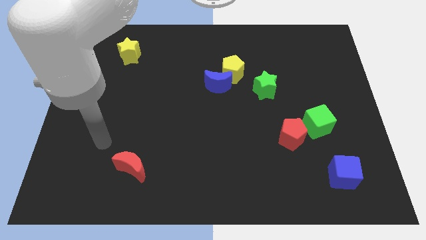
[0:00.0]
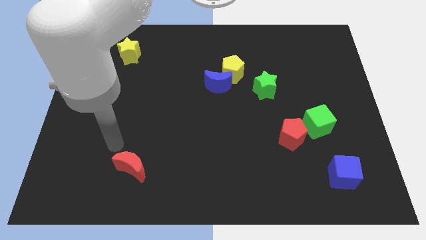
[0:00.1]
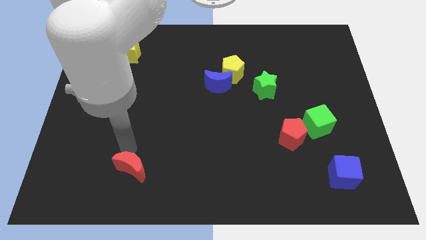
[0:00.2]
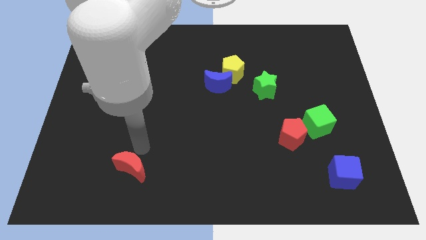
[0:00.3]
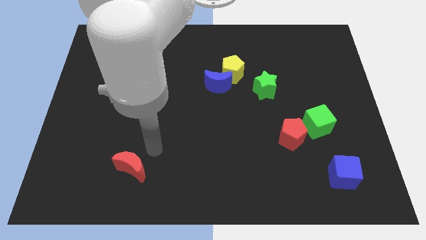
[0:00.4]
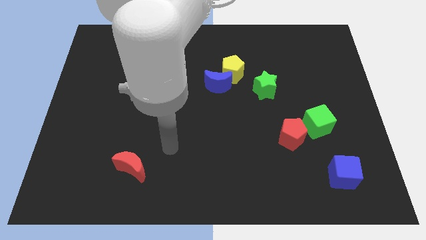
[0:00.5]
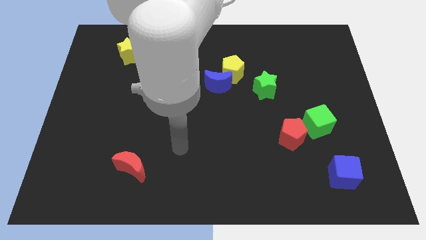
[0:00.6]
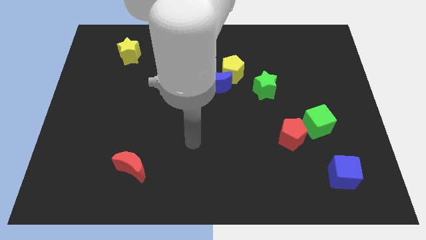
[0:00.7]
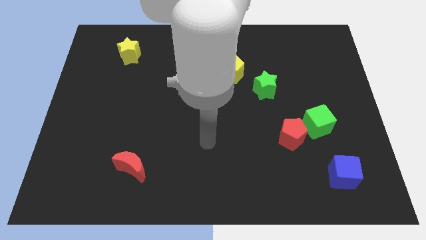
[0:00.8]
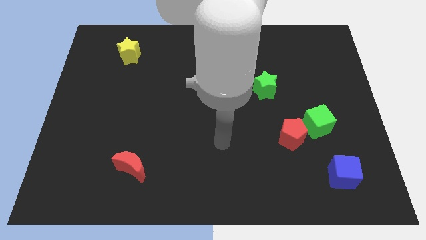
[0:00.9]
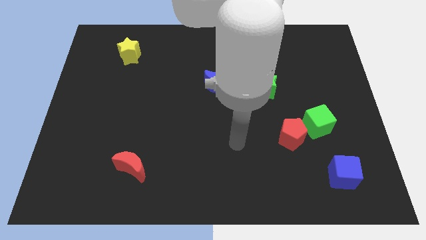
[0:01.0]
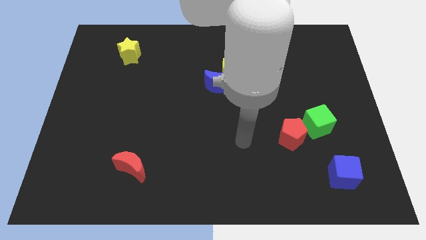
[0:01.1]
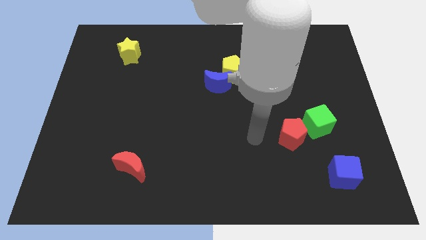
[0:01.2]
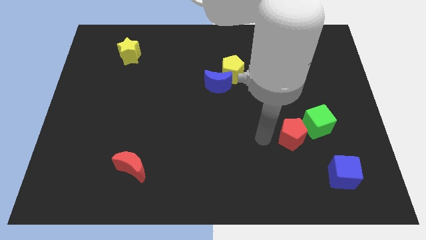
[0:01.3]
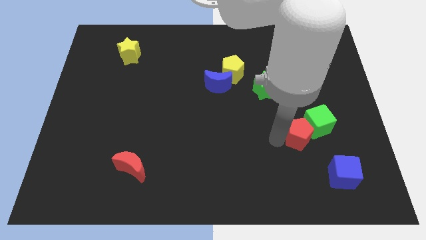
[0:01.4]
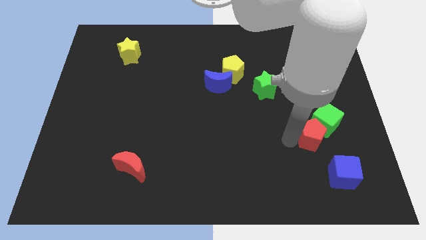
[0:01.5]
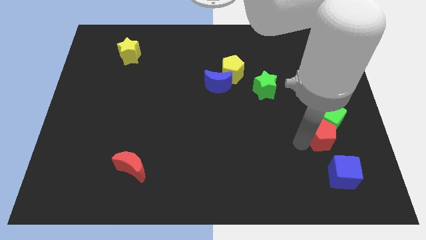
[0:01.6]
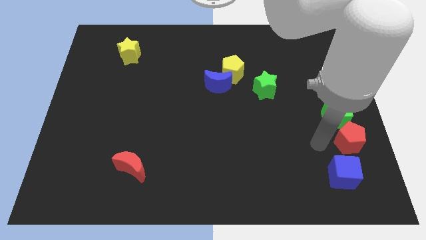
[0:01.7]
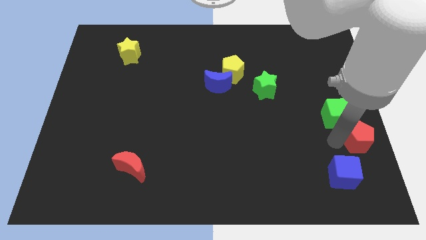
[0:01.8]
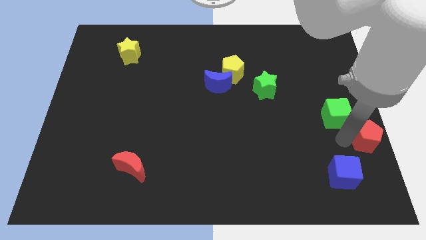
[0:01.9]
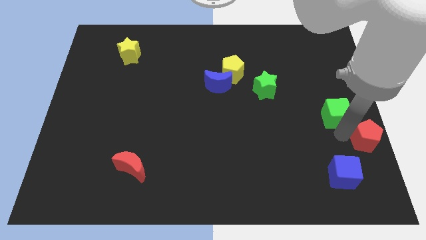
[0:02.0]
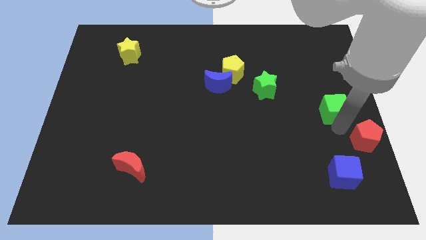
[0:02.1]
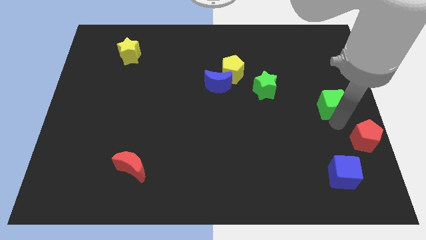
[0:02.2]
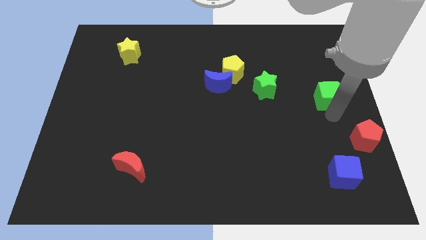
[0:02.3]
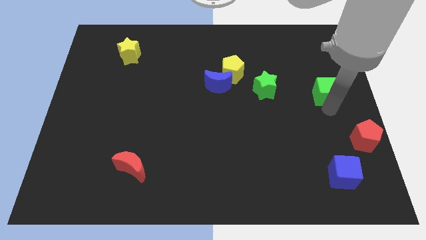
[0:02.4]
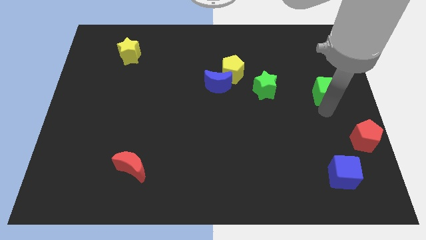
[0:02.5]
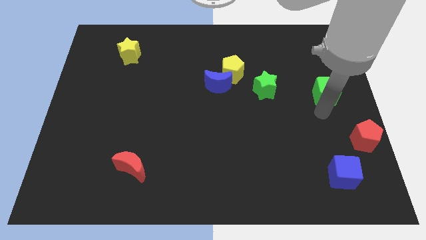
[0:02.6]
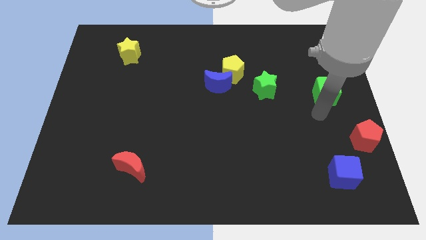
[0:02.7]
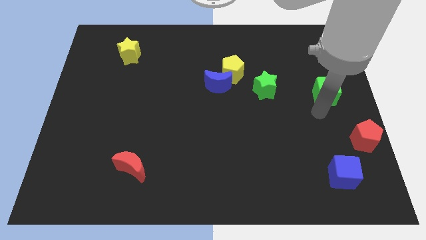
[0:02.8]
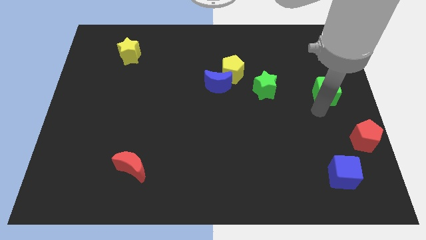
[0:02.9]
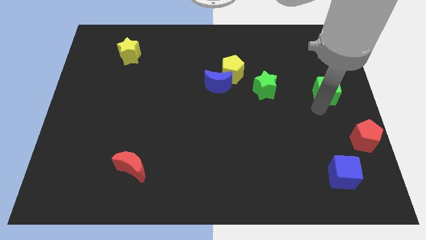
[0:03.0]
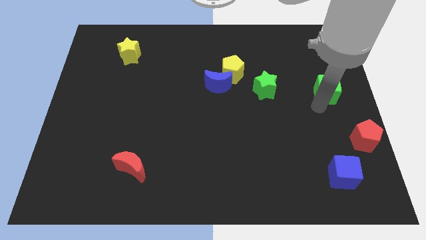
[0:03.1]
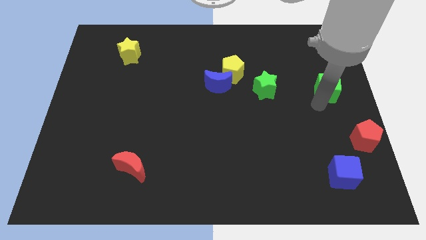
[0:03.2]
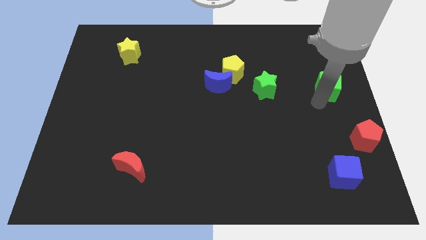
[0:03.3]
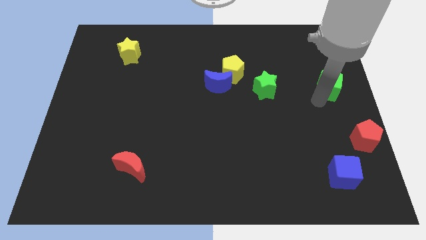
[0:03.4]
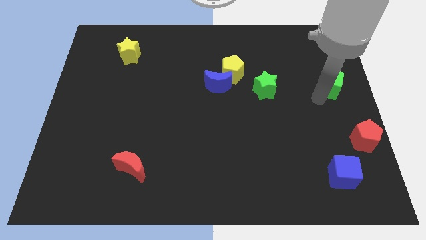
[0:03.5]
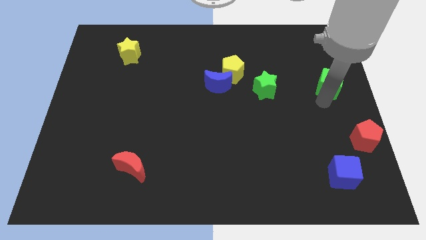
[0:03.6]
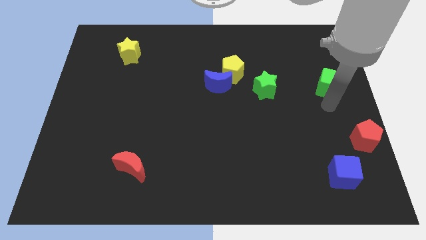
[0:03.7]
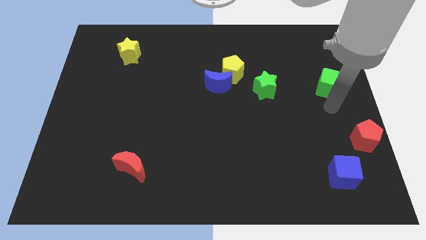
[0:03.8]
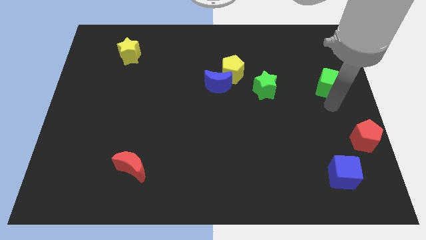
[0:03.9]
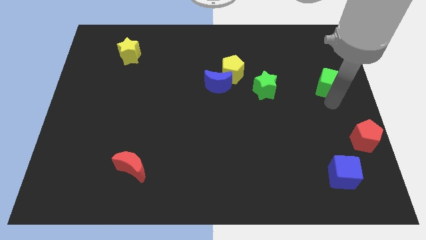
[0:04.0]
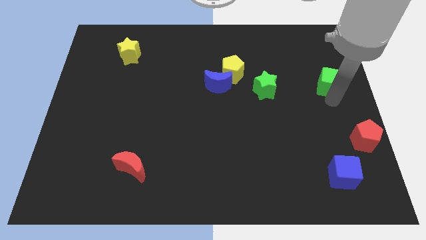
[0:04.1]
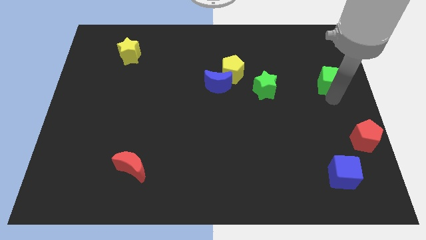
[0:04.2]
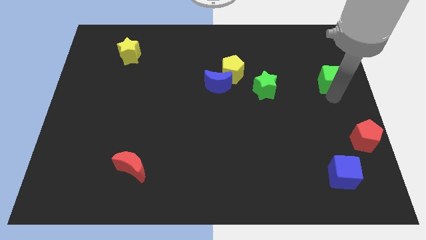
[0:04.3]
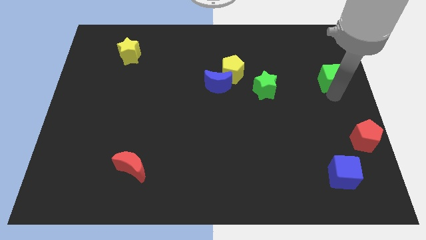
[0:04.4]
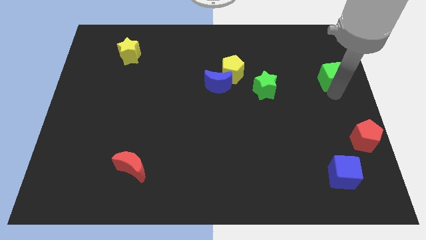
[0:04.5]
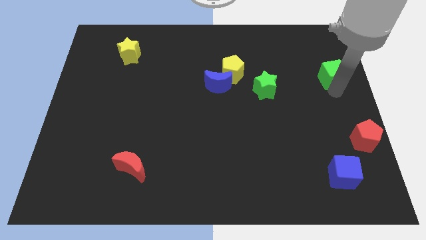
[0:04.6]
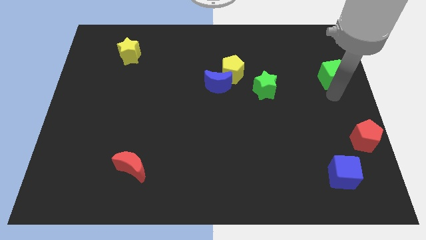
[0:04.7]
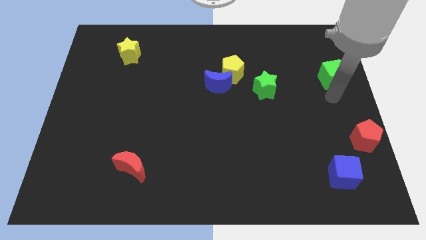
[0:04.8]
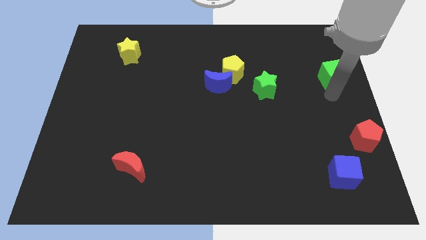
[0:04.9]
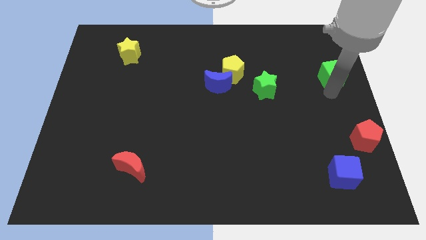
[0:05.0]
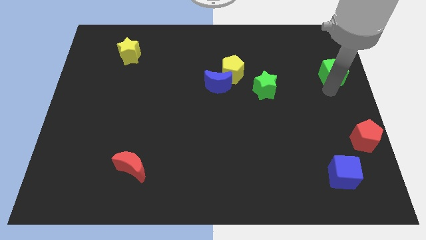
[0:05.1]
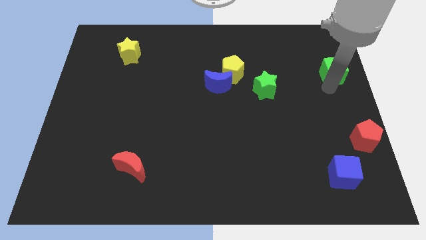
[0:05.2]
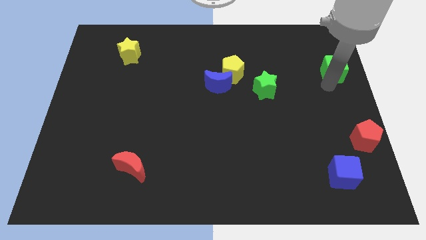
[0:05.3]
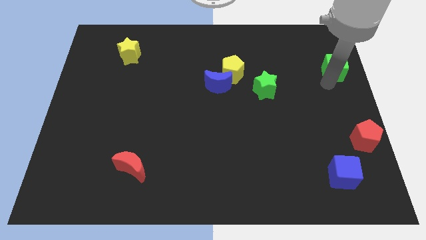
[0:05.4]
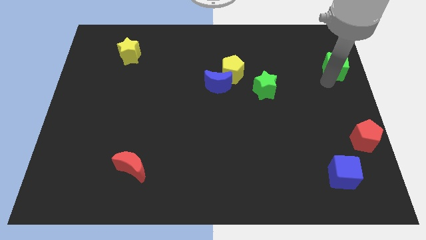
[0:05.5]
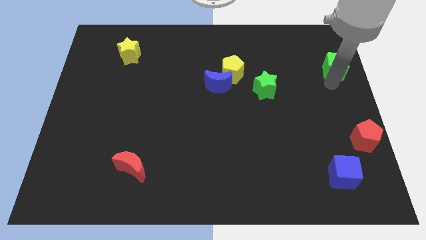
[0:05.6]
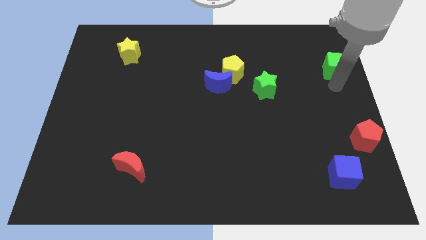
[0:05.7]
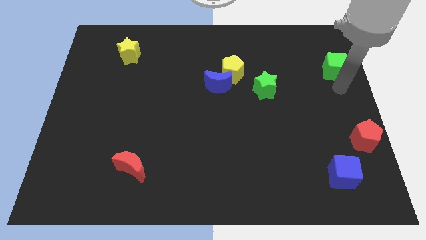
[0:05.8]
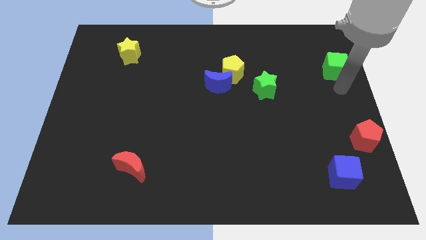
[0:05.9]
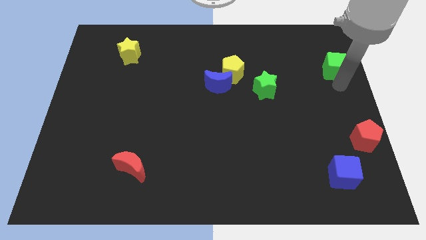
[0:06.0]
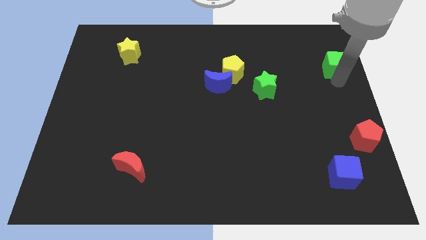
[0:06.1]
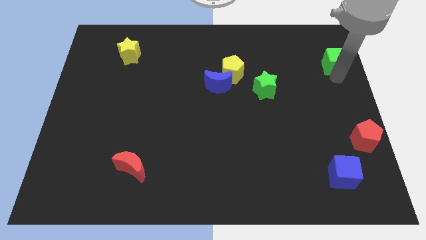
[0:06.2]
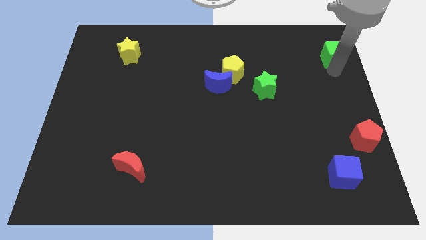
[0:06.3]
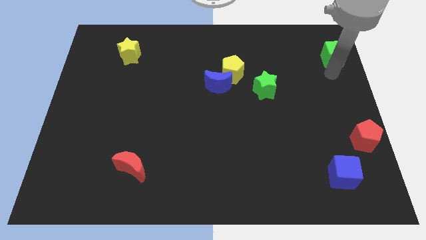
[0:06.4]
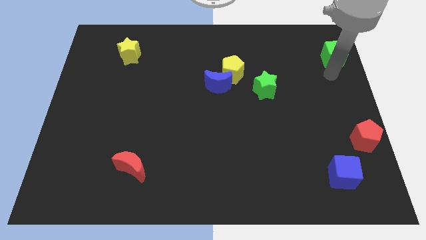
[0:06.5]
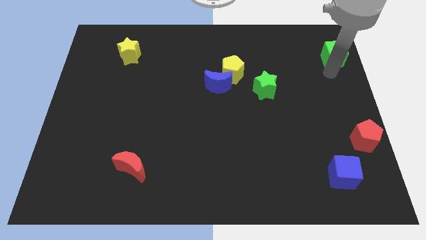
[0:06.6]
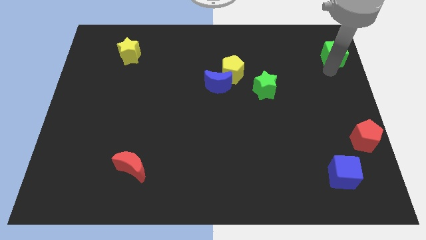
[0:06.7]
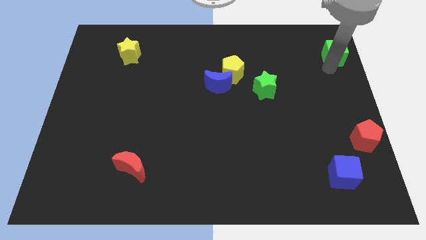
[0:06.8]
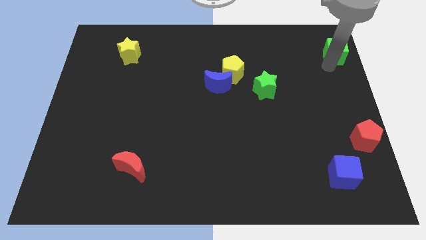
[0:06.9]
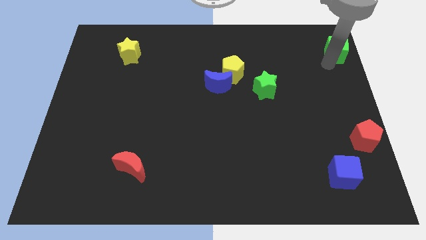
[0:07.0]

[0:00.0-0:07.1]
slide the green cube to the top right of the board
